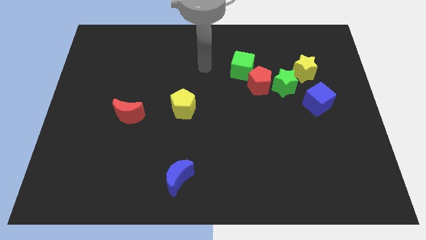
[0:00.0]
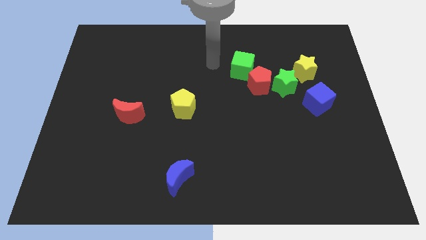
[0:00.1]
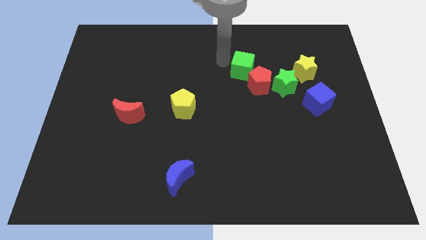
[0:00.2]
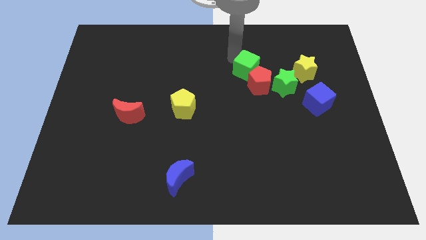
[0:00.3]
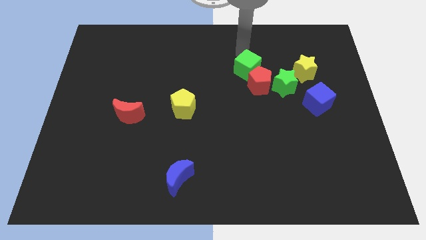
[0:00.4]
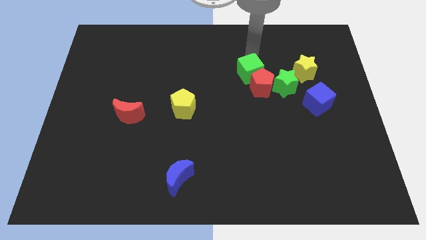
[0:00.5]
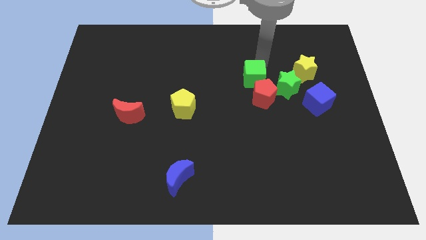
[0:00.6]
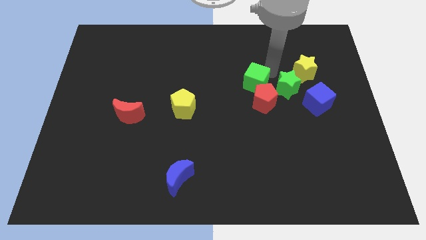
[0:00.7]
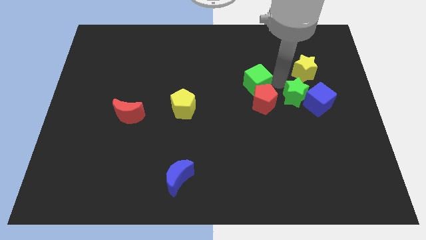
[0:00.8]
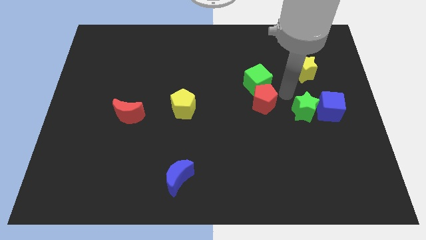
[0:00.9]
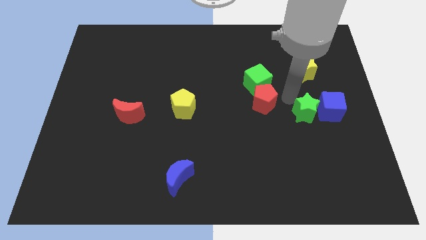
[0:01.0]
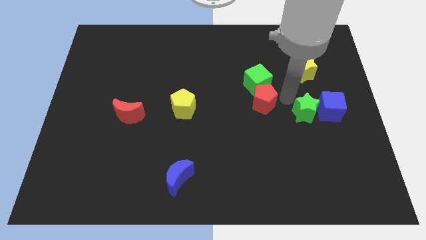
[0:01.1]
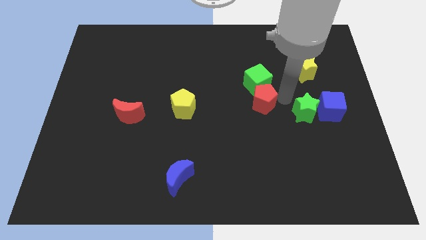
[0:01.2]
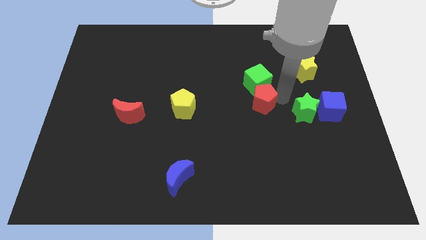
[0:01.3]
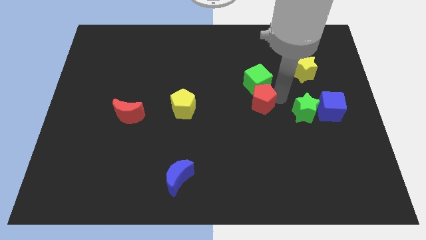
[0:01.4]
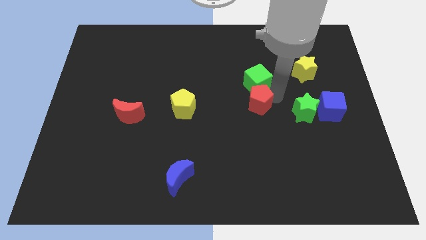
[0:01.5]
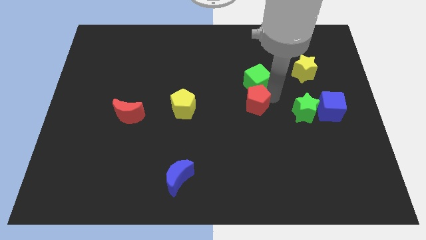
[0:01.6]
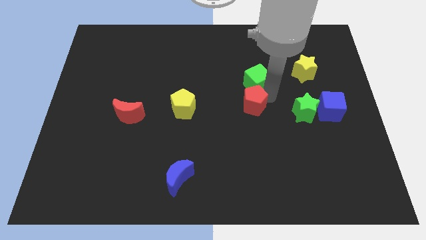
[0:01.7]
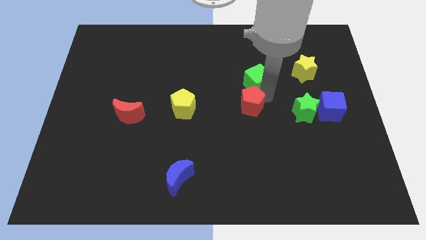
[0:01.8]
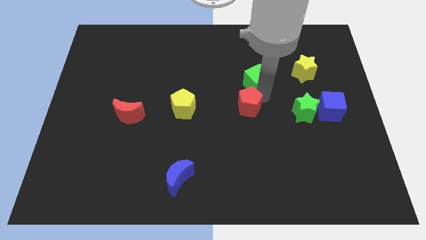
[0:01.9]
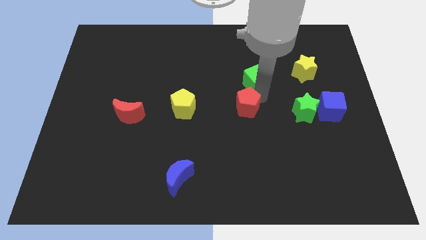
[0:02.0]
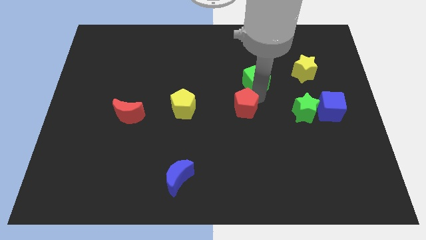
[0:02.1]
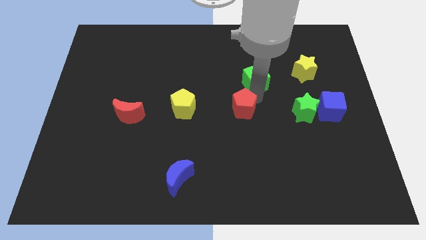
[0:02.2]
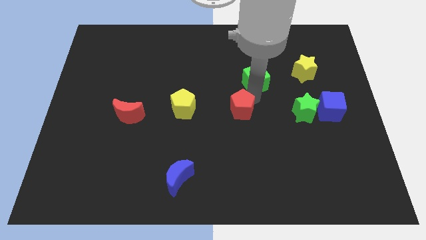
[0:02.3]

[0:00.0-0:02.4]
pull the red pentagon apart from the green star and green cube

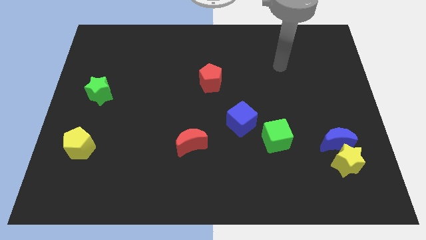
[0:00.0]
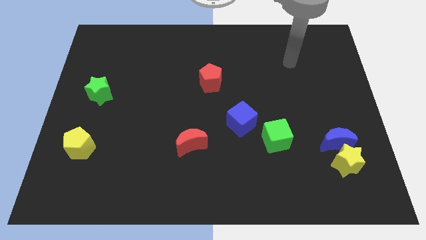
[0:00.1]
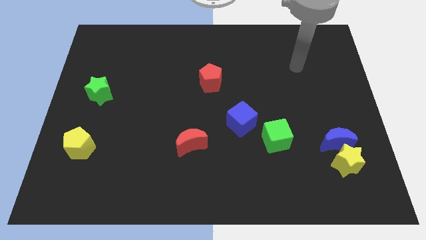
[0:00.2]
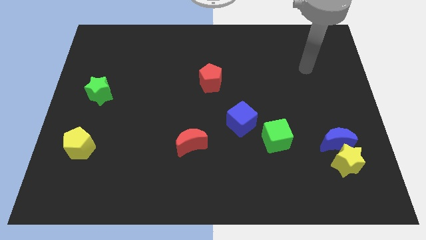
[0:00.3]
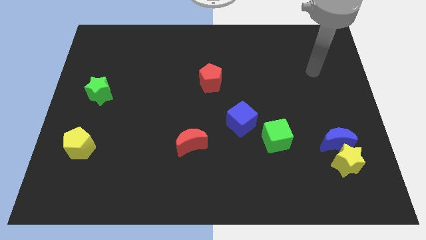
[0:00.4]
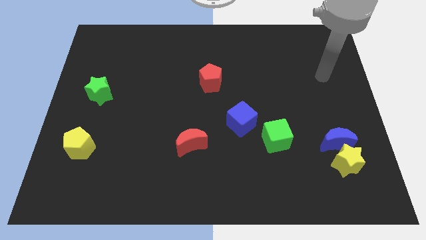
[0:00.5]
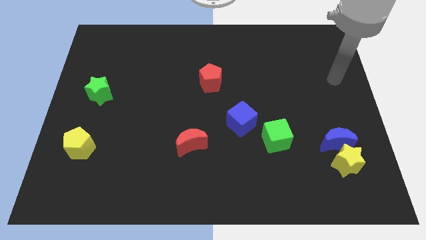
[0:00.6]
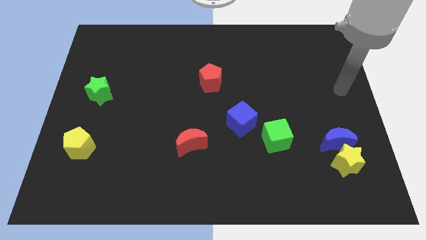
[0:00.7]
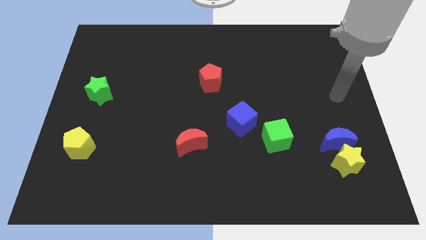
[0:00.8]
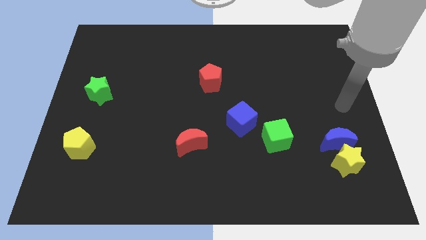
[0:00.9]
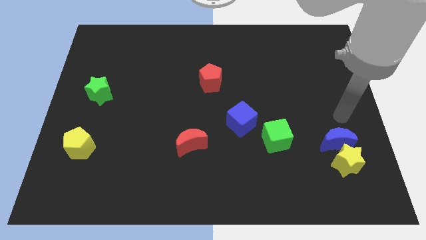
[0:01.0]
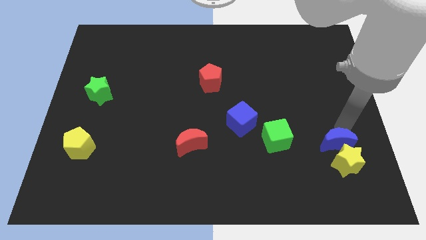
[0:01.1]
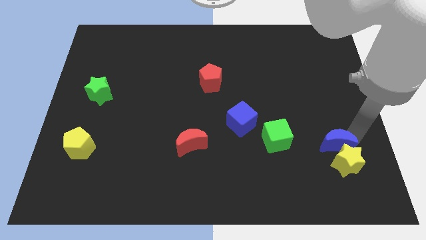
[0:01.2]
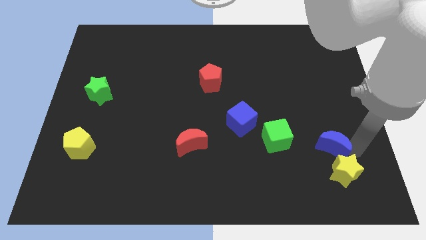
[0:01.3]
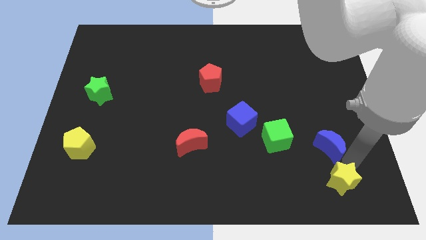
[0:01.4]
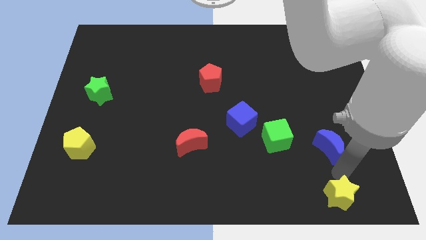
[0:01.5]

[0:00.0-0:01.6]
pull the blue moon apart from the yellow star

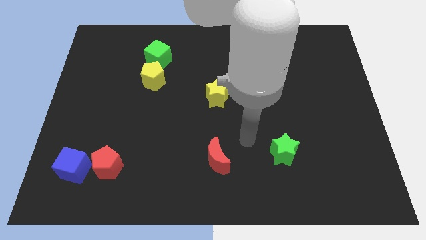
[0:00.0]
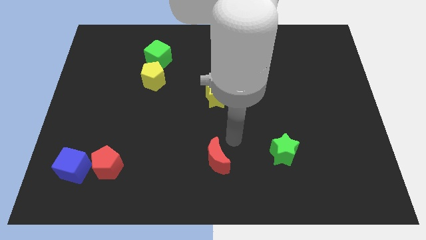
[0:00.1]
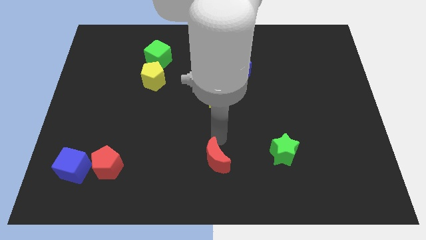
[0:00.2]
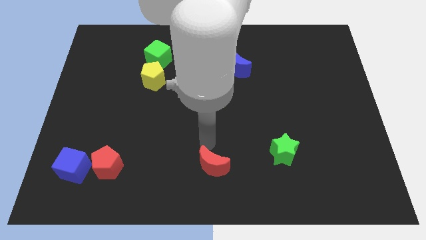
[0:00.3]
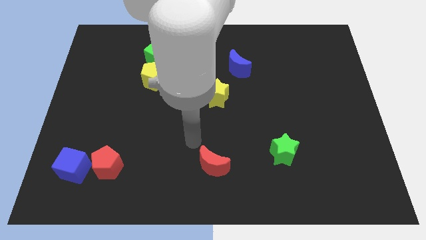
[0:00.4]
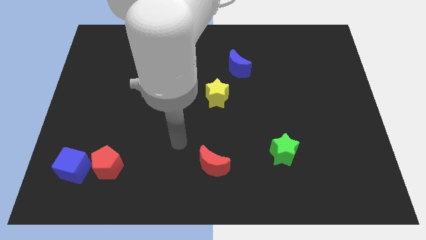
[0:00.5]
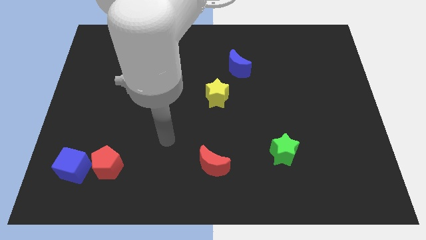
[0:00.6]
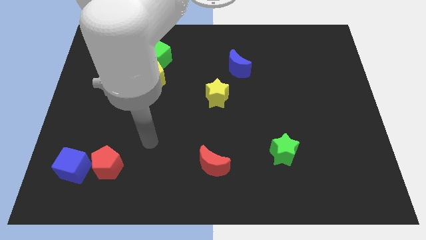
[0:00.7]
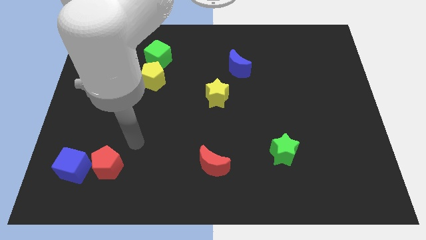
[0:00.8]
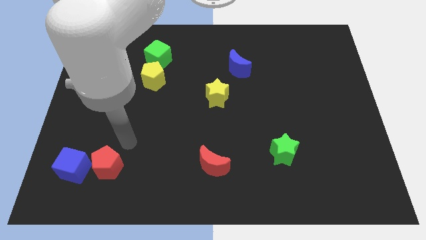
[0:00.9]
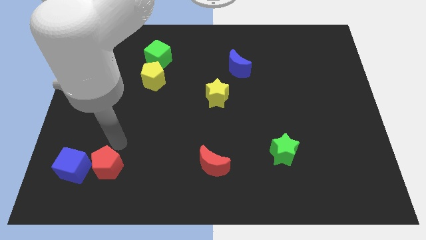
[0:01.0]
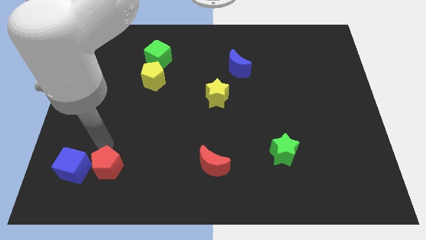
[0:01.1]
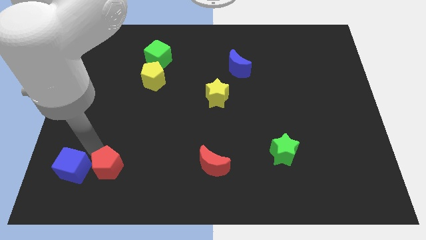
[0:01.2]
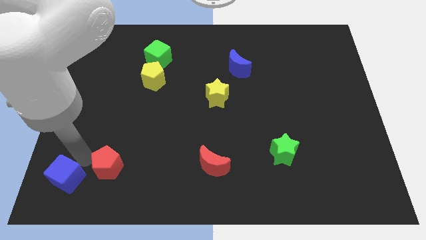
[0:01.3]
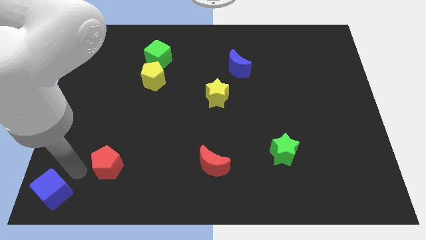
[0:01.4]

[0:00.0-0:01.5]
separate the red pentagon from the blue cube

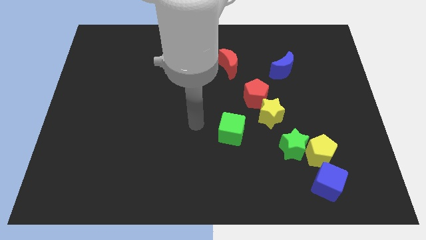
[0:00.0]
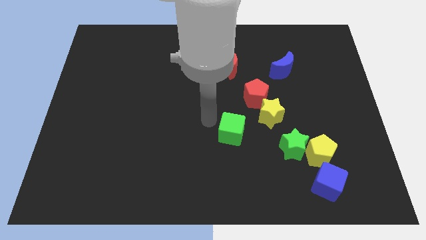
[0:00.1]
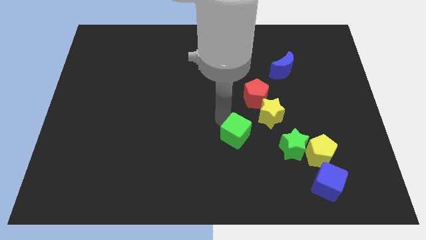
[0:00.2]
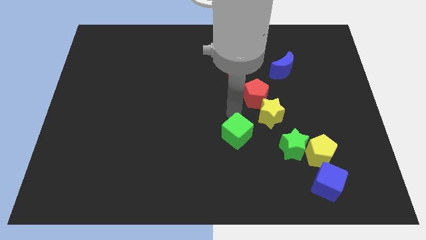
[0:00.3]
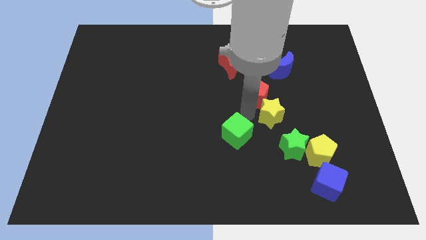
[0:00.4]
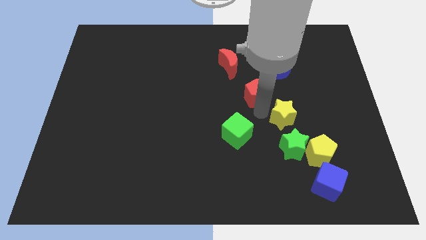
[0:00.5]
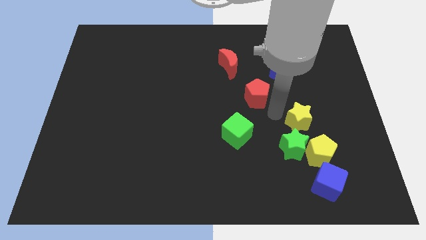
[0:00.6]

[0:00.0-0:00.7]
move the red pentagon away from the yellow star

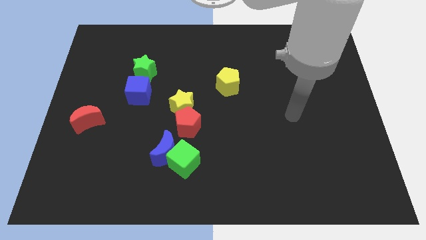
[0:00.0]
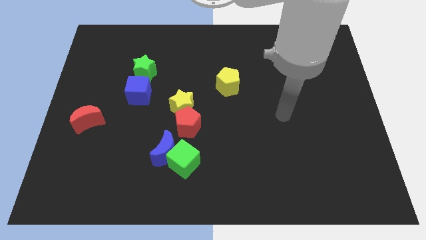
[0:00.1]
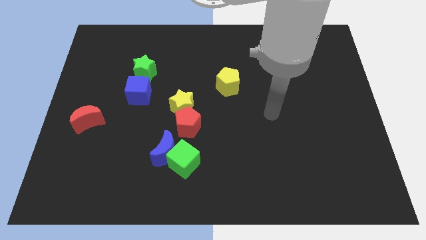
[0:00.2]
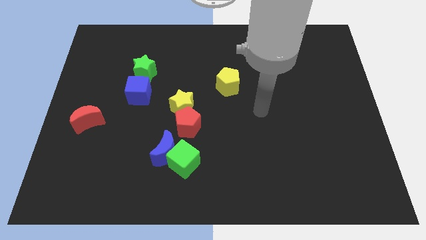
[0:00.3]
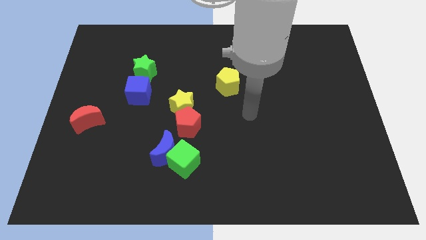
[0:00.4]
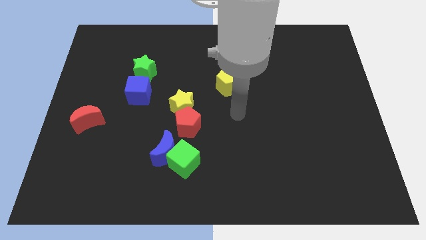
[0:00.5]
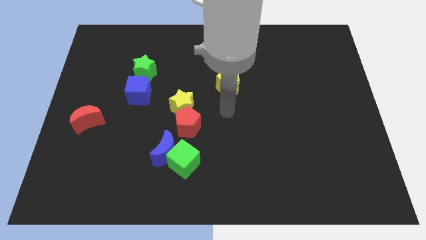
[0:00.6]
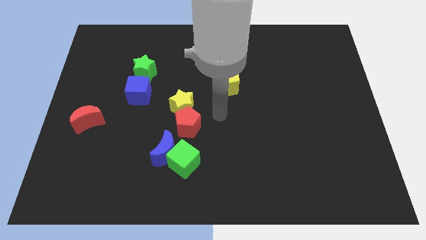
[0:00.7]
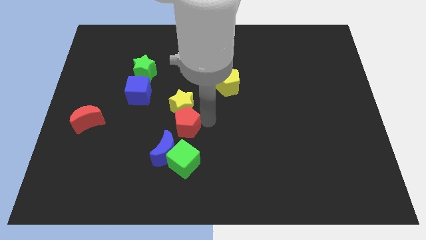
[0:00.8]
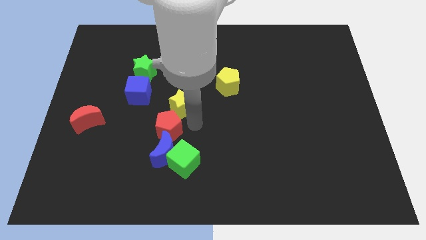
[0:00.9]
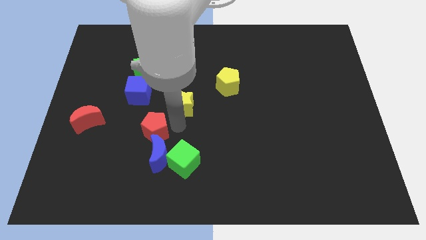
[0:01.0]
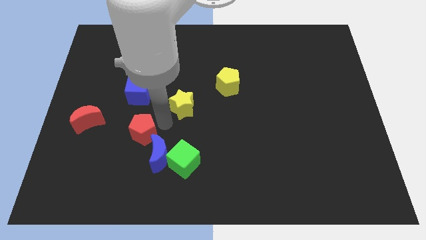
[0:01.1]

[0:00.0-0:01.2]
separate the yellow star from the red pentagon

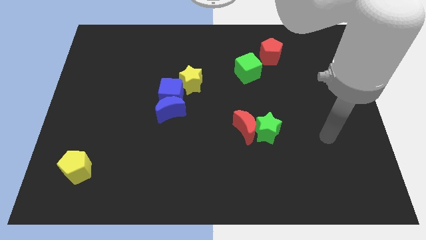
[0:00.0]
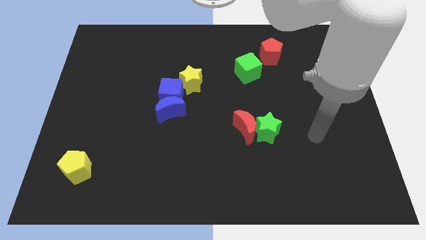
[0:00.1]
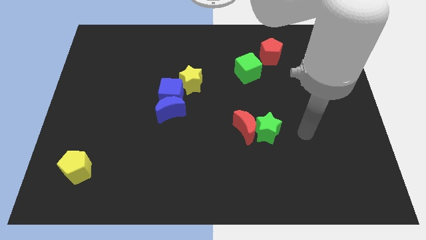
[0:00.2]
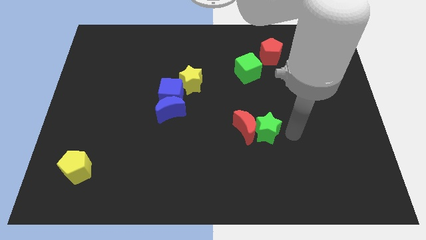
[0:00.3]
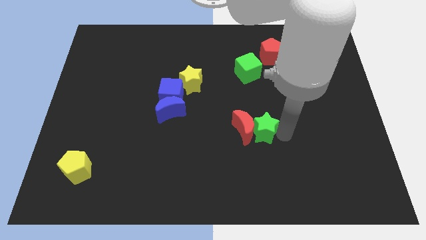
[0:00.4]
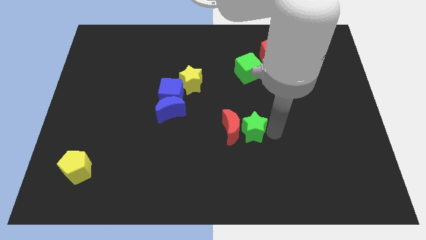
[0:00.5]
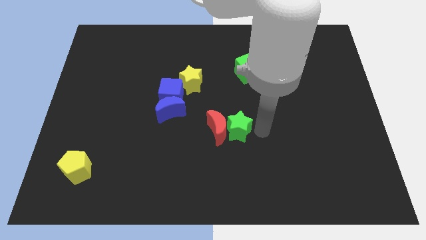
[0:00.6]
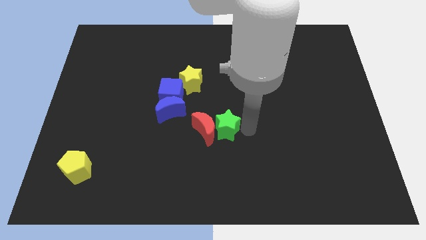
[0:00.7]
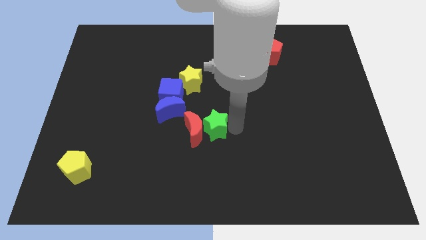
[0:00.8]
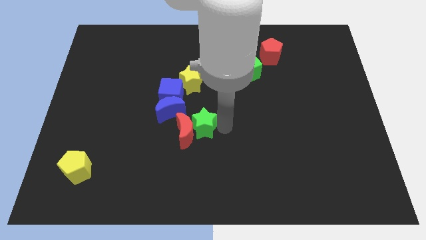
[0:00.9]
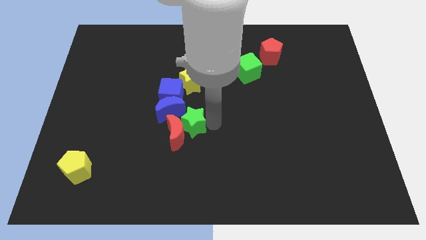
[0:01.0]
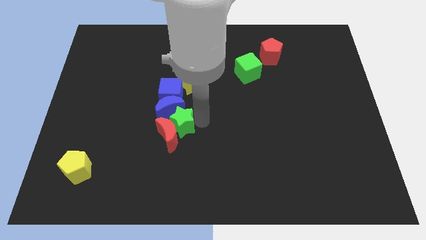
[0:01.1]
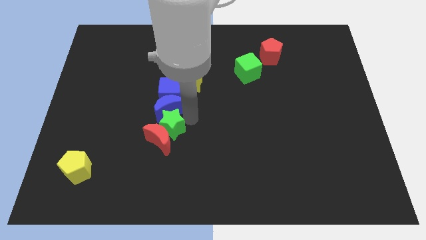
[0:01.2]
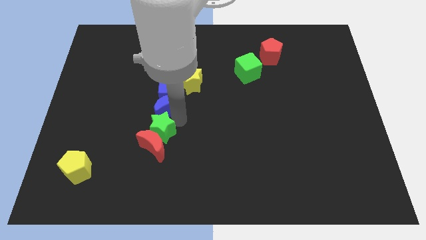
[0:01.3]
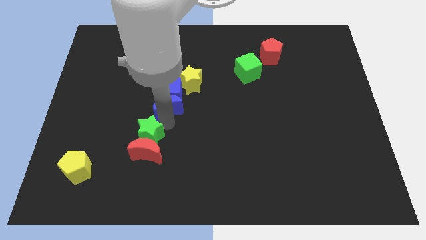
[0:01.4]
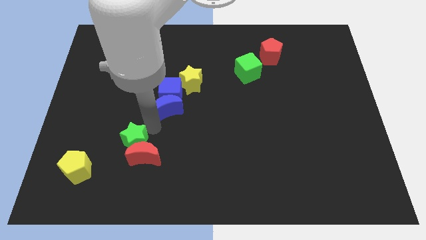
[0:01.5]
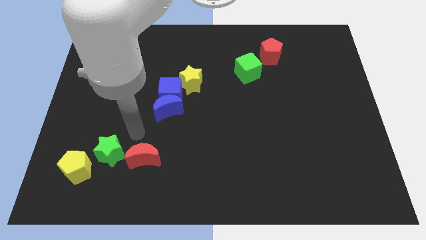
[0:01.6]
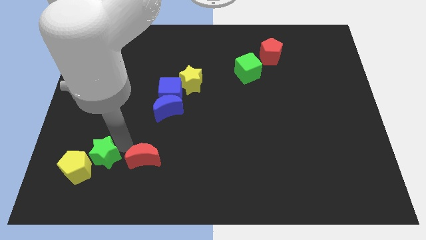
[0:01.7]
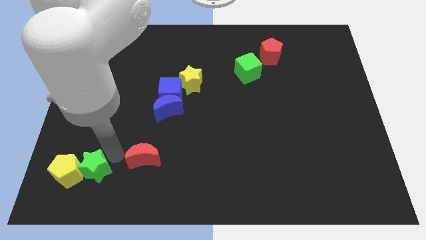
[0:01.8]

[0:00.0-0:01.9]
separate the red moon from the green star
